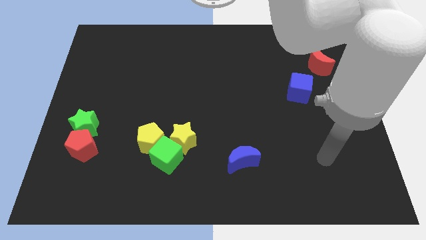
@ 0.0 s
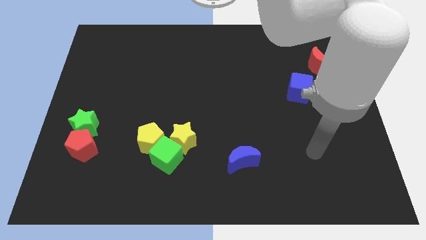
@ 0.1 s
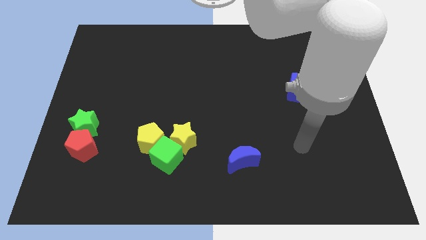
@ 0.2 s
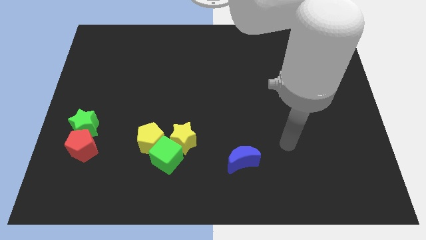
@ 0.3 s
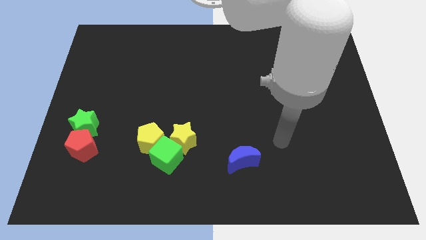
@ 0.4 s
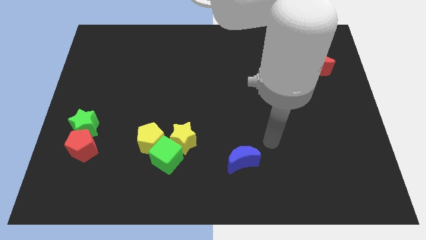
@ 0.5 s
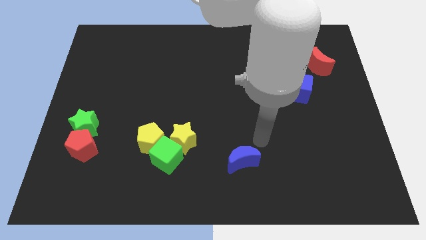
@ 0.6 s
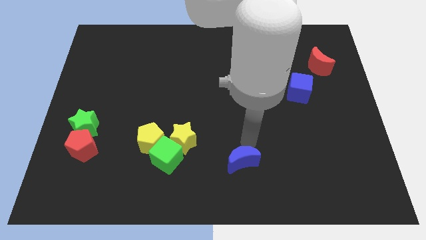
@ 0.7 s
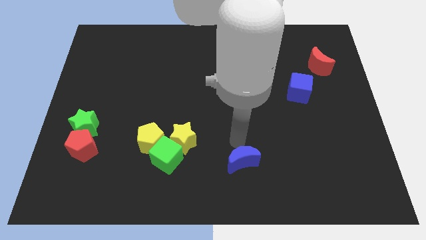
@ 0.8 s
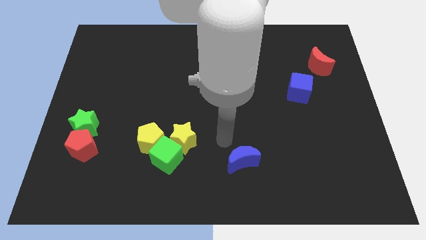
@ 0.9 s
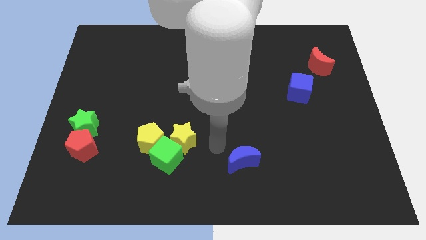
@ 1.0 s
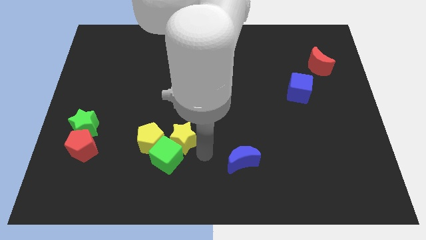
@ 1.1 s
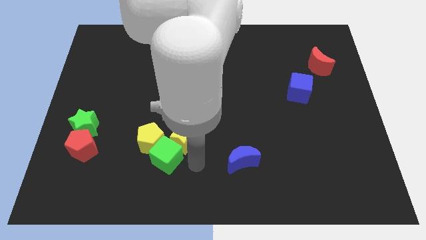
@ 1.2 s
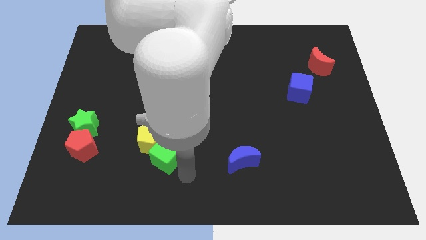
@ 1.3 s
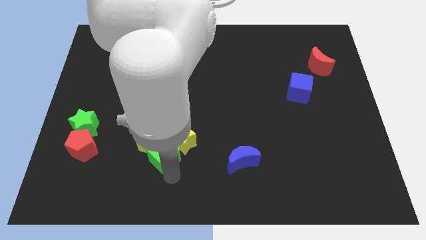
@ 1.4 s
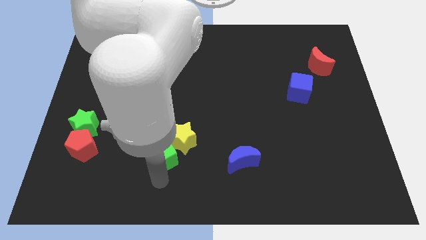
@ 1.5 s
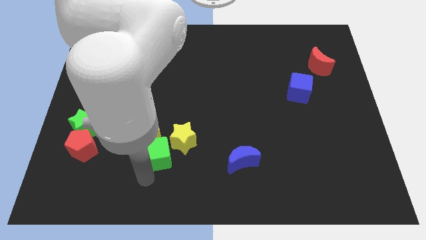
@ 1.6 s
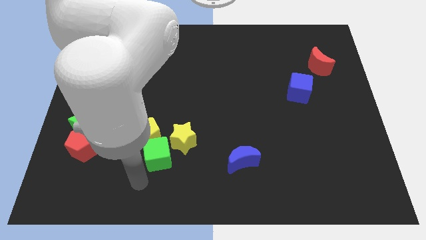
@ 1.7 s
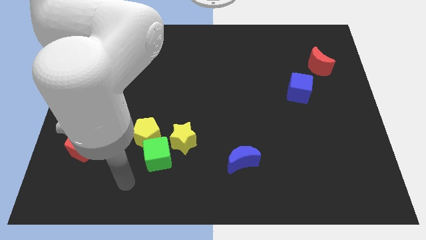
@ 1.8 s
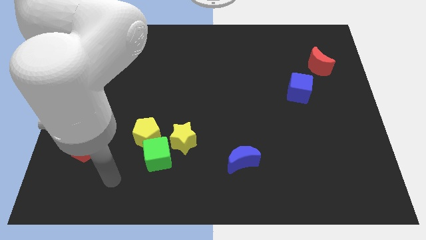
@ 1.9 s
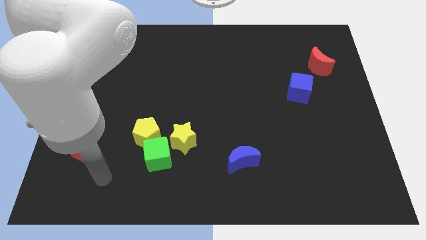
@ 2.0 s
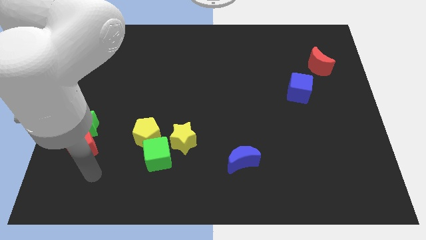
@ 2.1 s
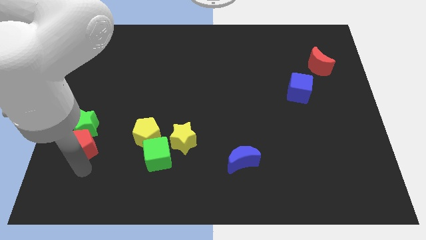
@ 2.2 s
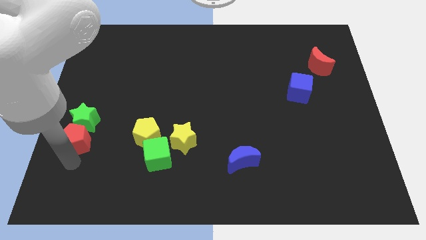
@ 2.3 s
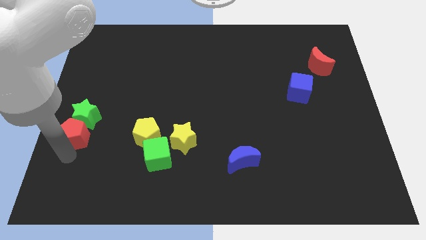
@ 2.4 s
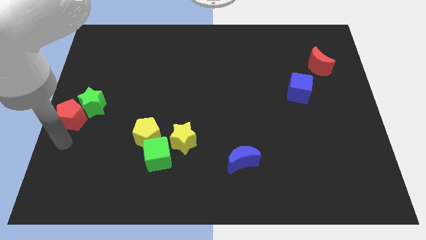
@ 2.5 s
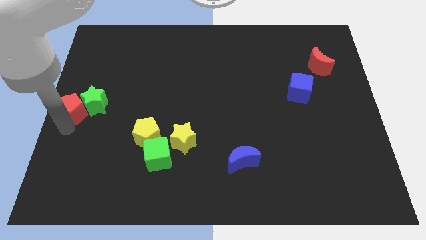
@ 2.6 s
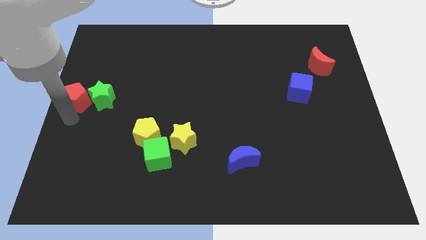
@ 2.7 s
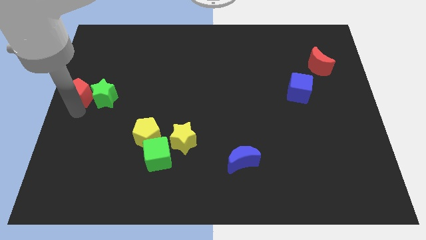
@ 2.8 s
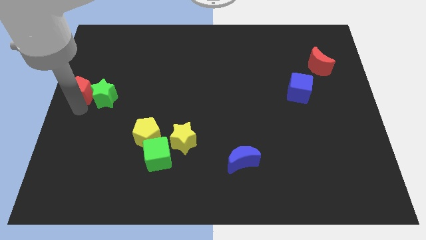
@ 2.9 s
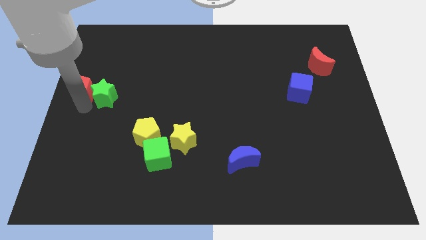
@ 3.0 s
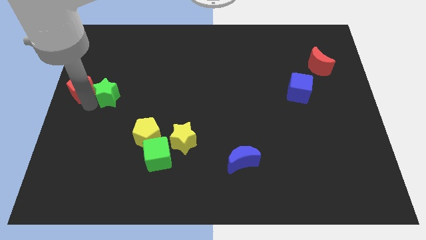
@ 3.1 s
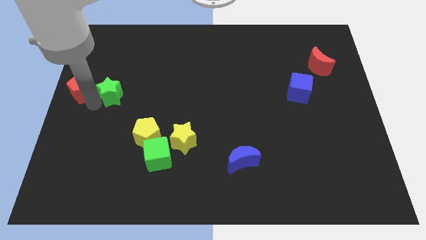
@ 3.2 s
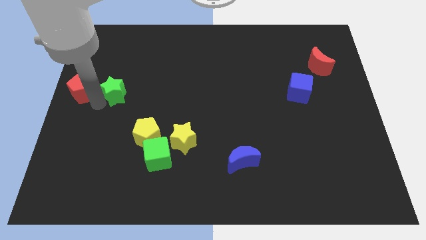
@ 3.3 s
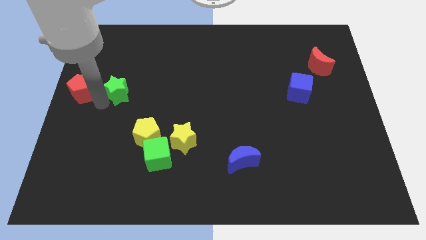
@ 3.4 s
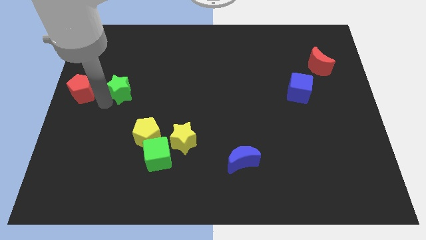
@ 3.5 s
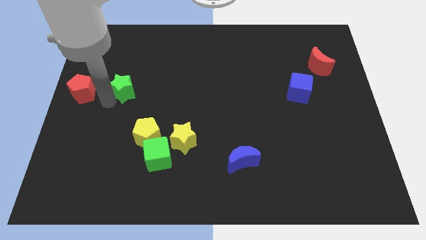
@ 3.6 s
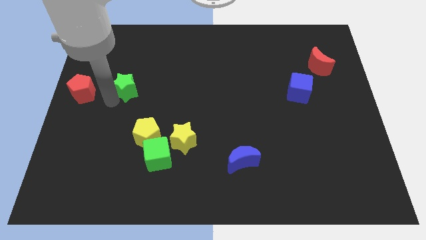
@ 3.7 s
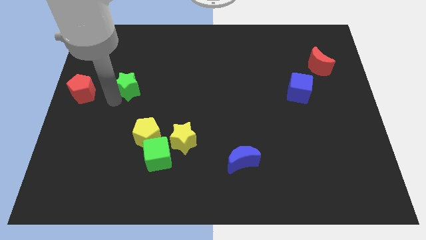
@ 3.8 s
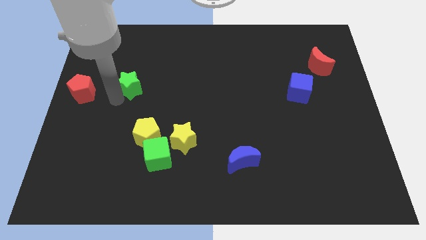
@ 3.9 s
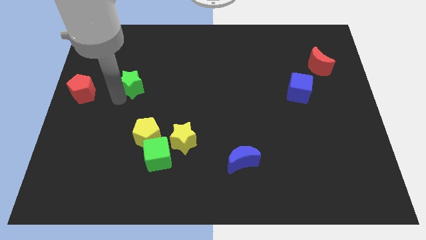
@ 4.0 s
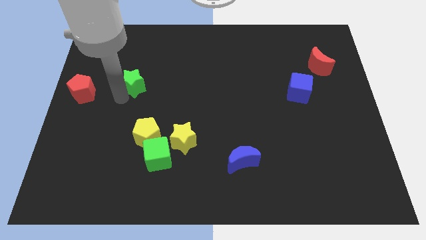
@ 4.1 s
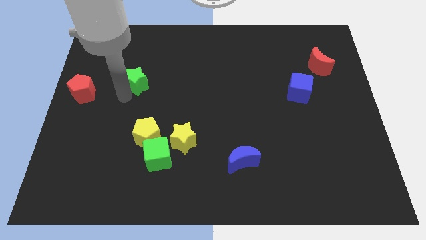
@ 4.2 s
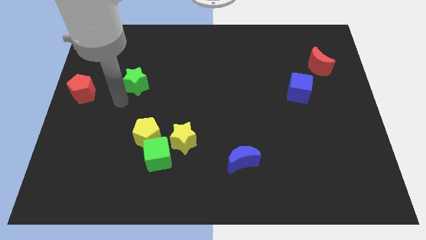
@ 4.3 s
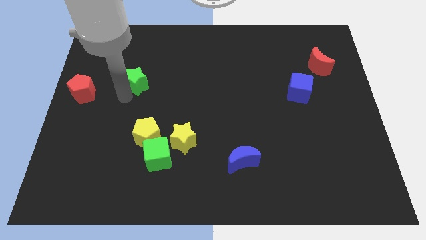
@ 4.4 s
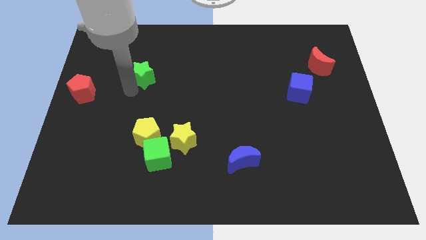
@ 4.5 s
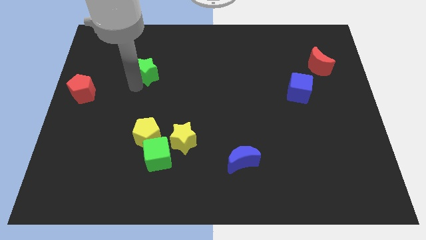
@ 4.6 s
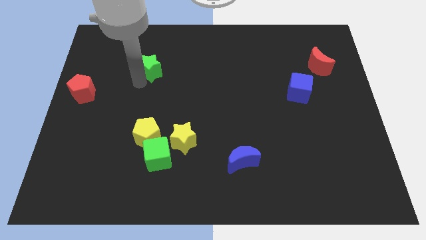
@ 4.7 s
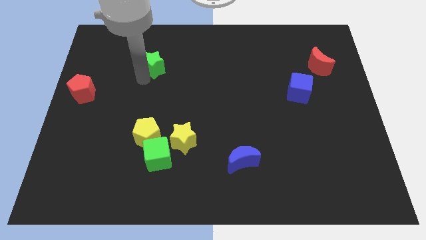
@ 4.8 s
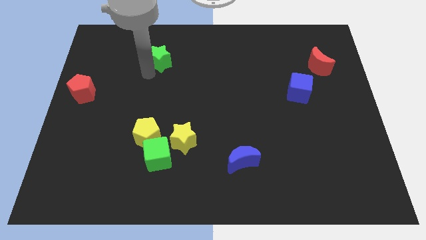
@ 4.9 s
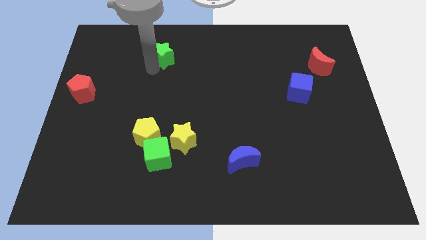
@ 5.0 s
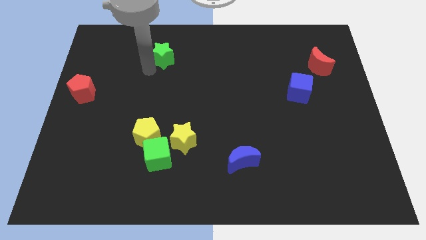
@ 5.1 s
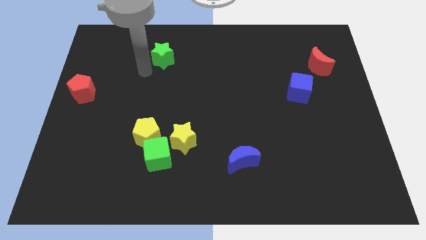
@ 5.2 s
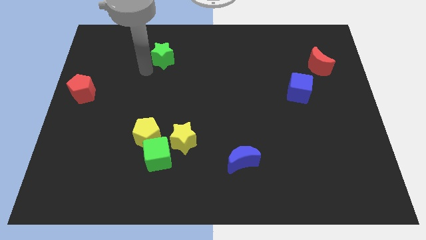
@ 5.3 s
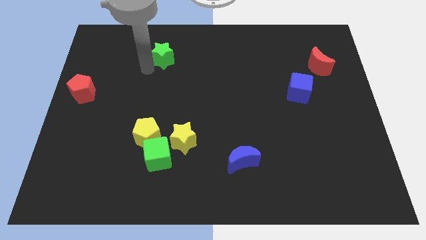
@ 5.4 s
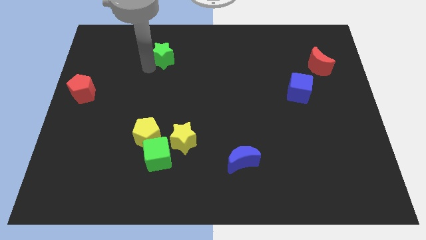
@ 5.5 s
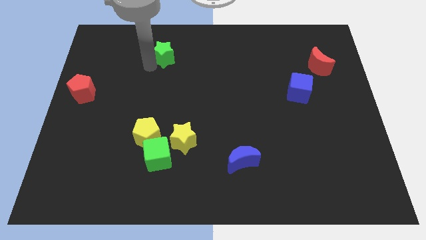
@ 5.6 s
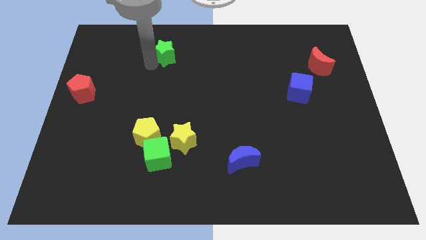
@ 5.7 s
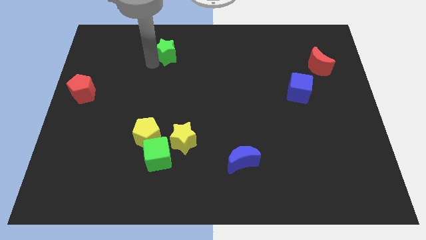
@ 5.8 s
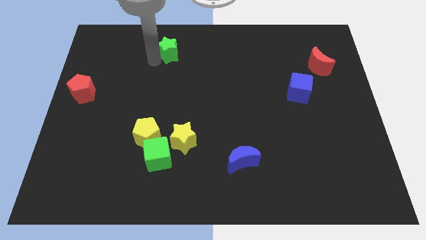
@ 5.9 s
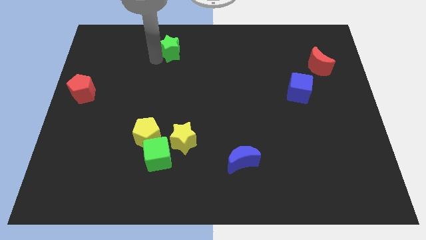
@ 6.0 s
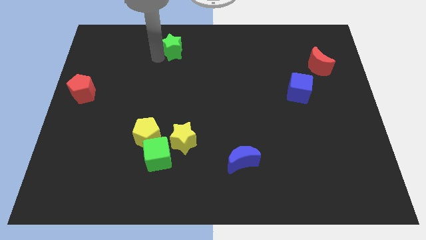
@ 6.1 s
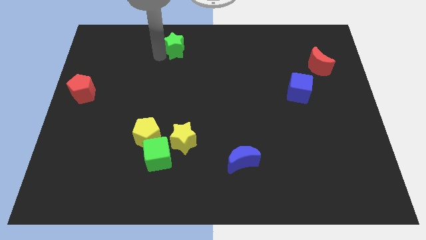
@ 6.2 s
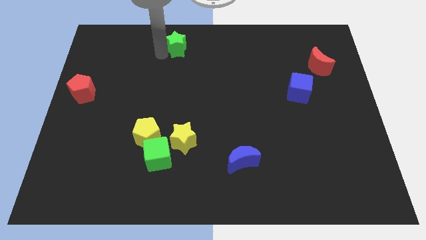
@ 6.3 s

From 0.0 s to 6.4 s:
slide the green star to the towards your base
